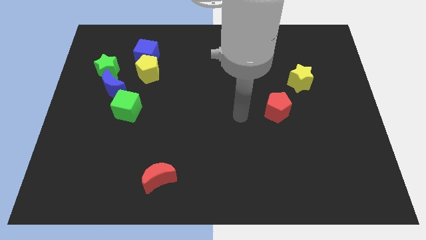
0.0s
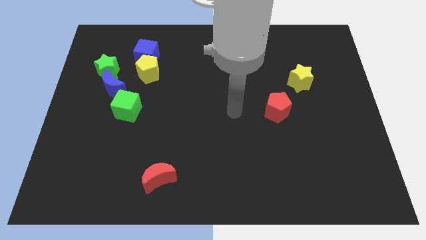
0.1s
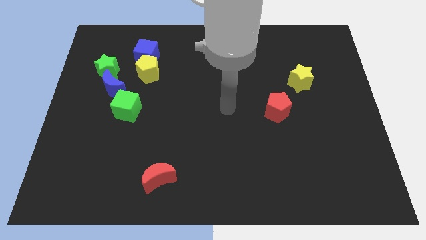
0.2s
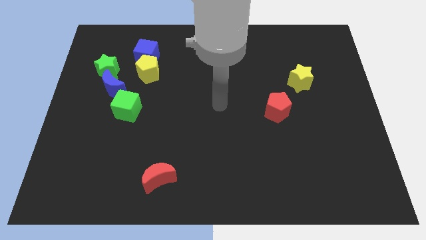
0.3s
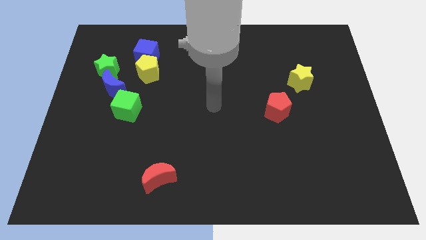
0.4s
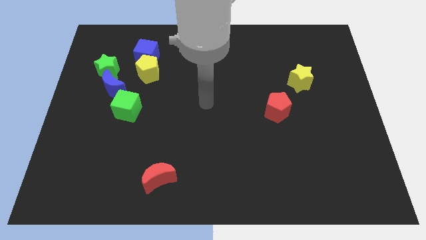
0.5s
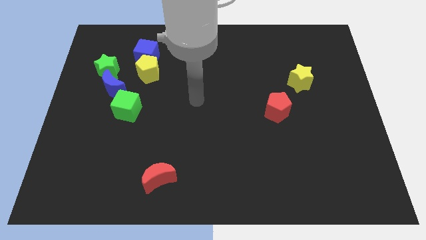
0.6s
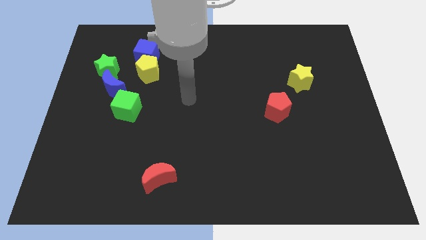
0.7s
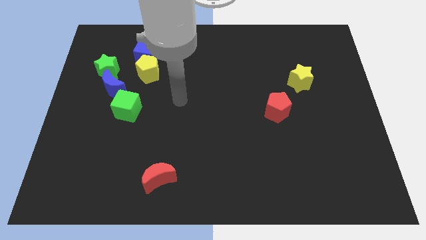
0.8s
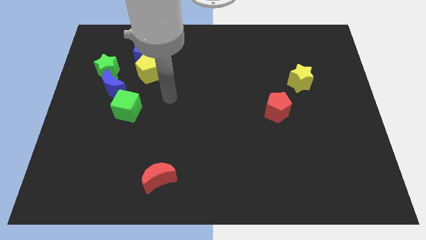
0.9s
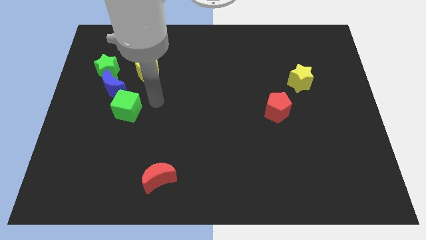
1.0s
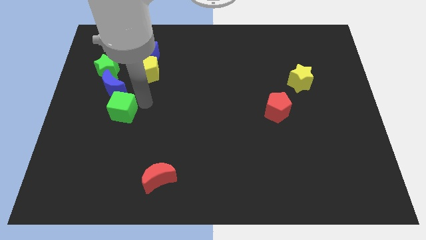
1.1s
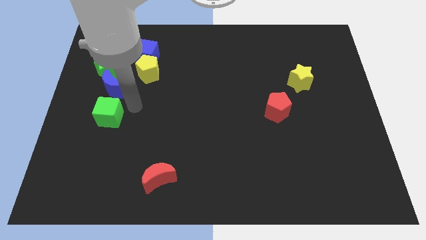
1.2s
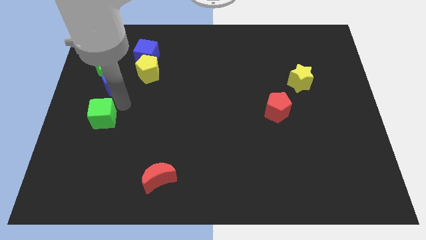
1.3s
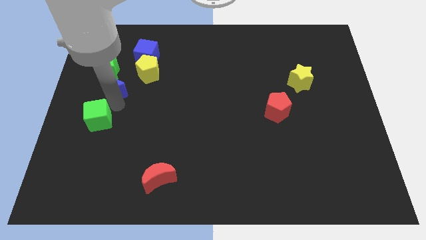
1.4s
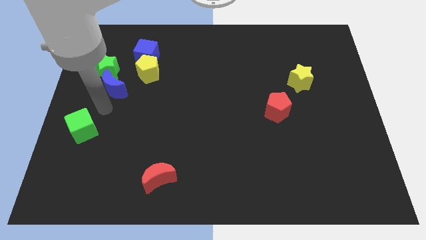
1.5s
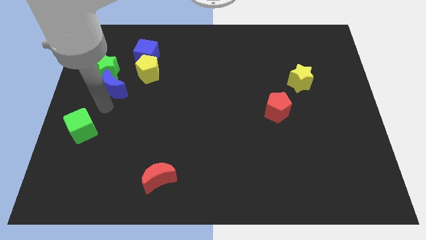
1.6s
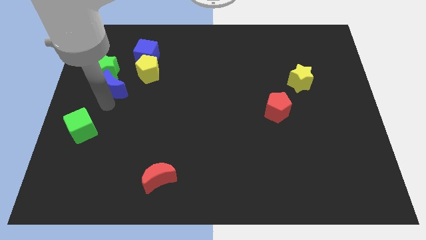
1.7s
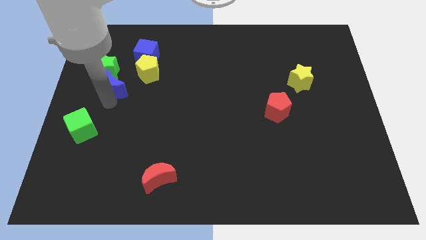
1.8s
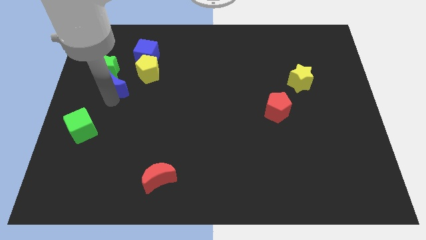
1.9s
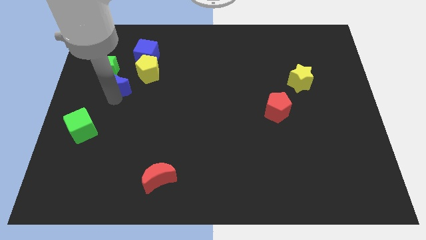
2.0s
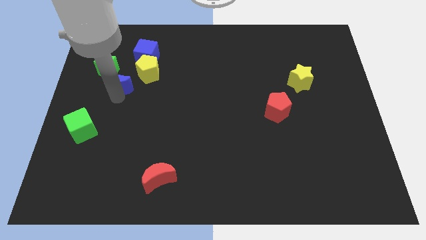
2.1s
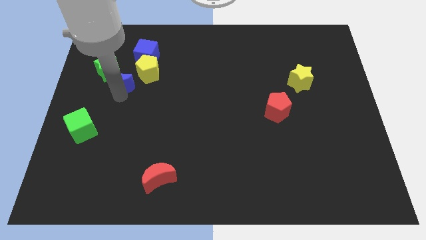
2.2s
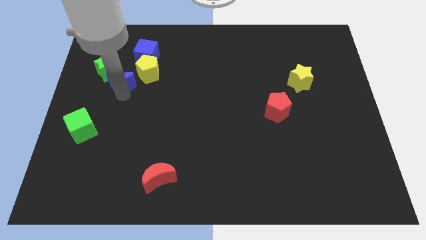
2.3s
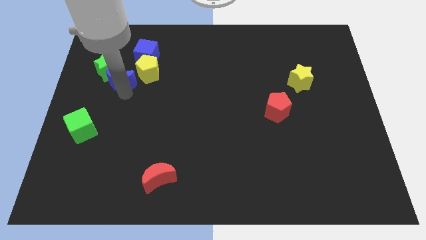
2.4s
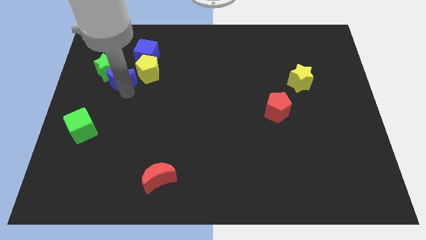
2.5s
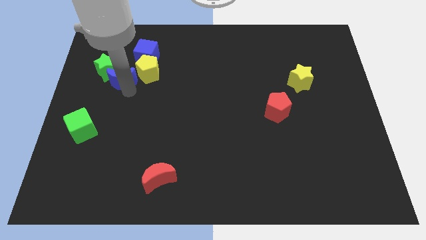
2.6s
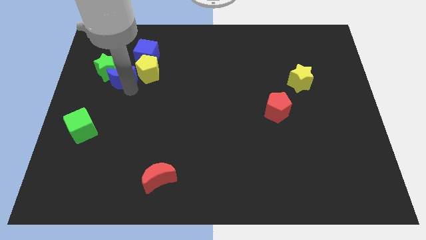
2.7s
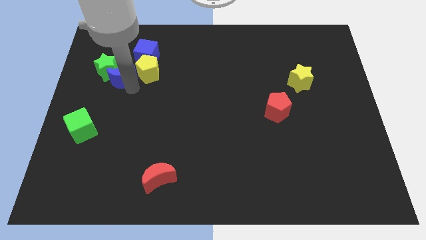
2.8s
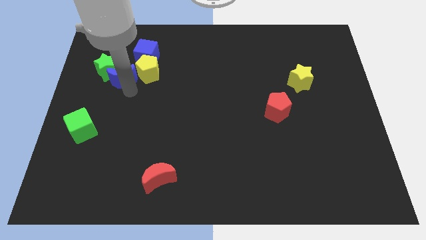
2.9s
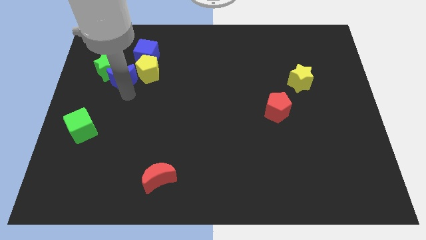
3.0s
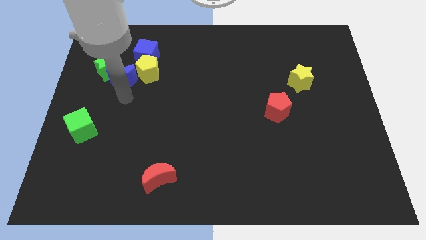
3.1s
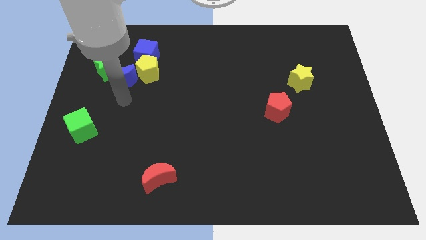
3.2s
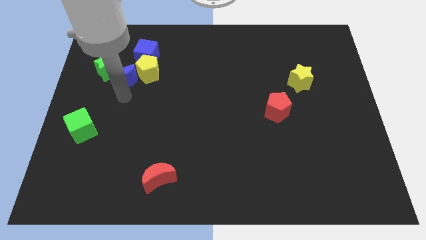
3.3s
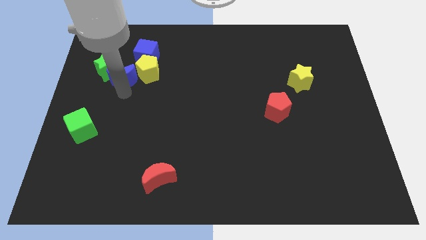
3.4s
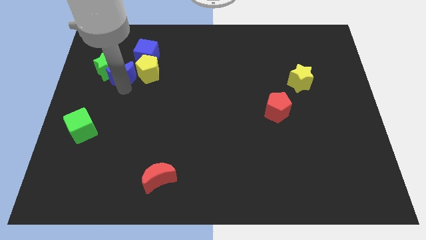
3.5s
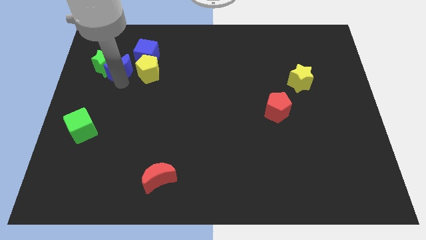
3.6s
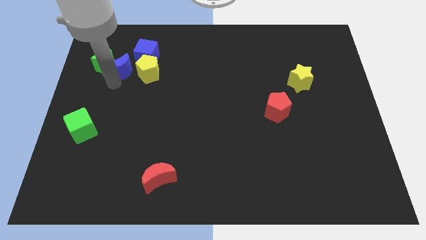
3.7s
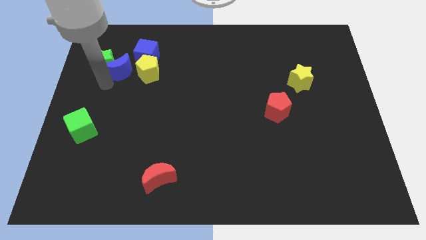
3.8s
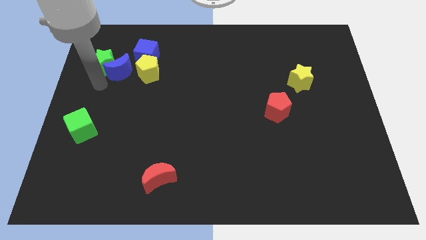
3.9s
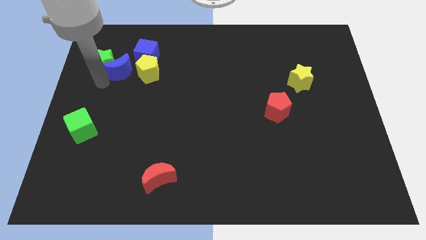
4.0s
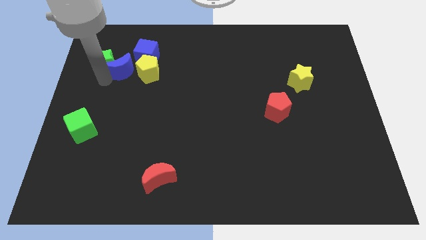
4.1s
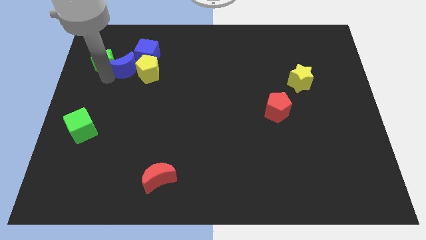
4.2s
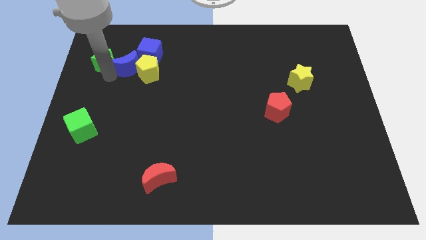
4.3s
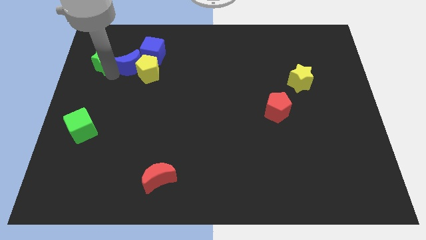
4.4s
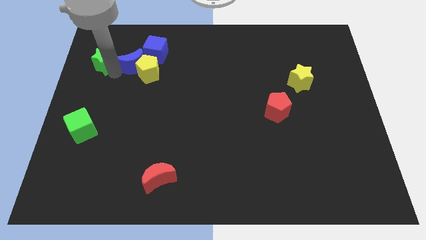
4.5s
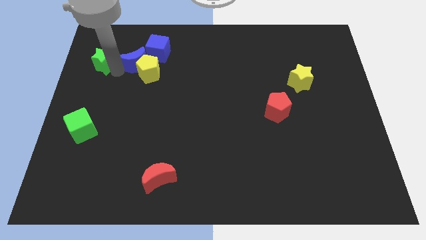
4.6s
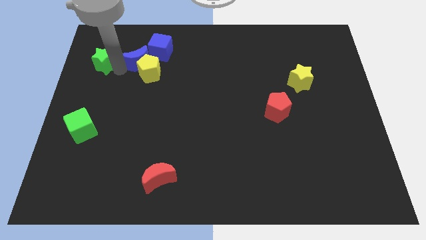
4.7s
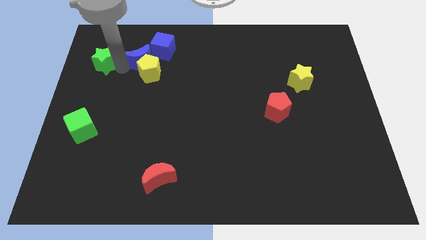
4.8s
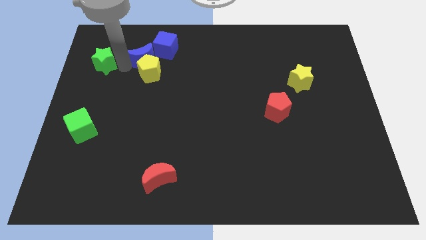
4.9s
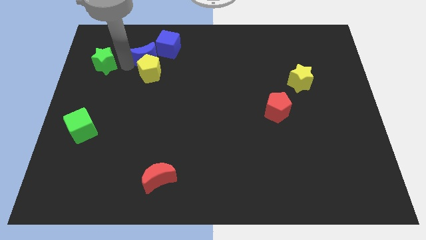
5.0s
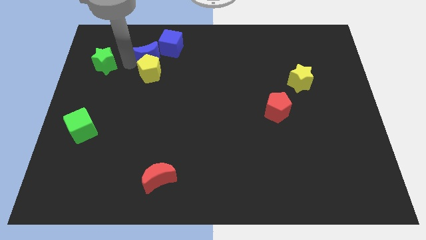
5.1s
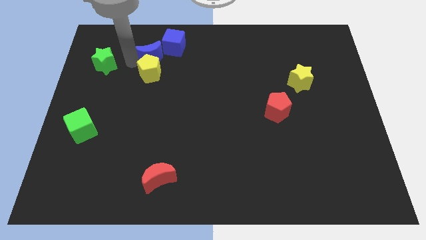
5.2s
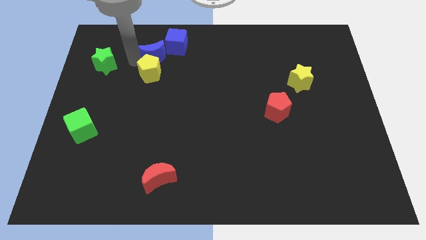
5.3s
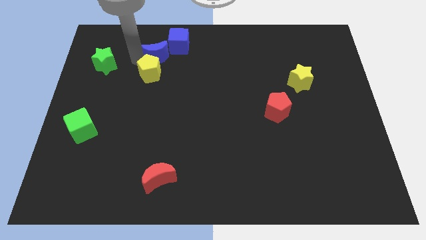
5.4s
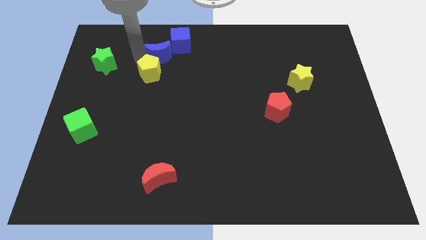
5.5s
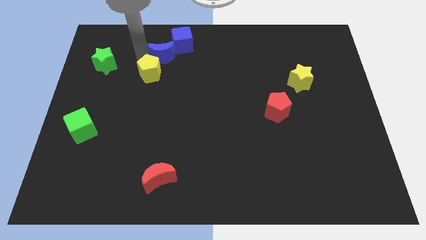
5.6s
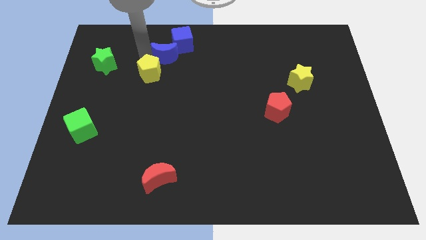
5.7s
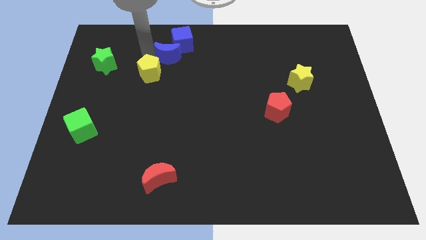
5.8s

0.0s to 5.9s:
push the blue moon towards the blue cube

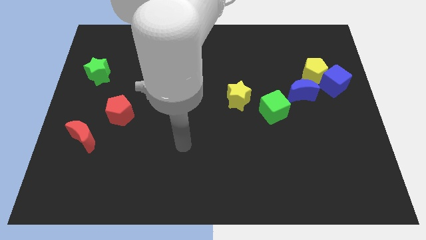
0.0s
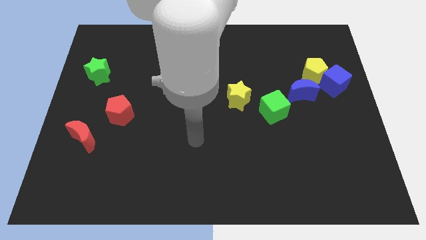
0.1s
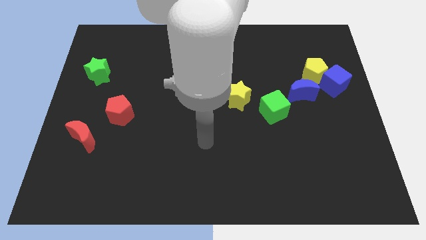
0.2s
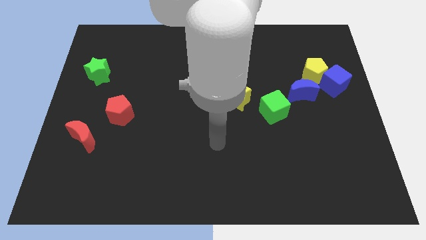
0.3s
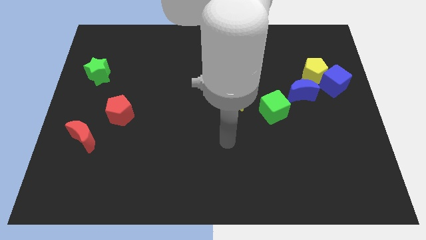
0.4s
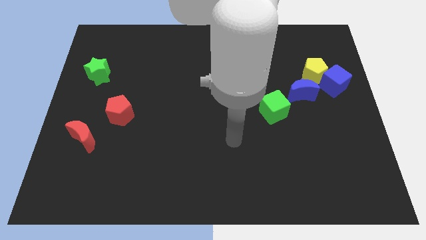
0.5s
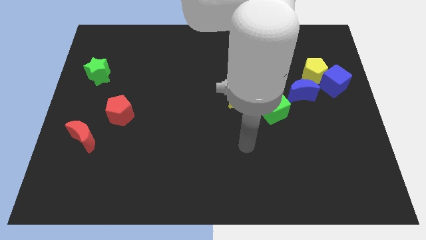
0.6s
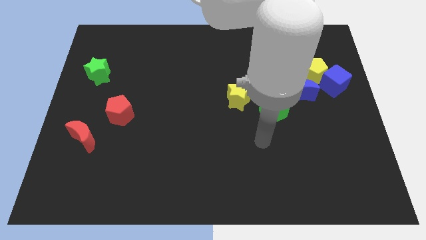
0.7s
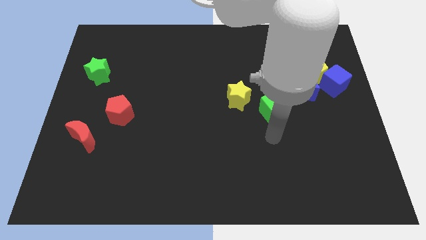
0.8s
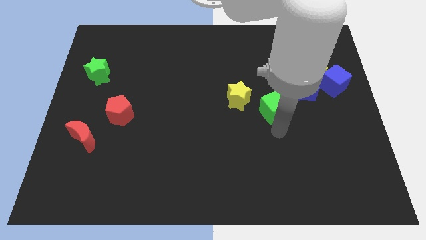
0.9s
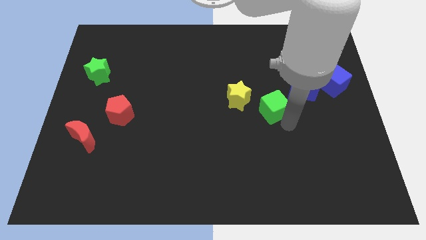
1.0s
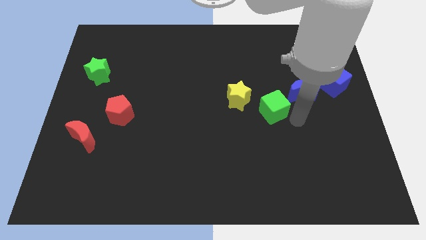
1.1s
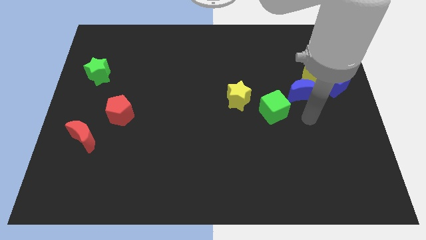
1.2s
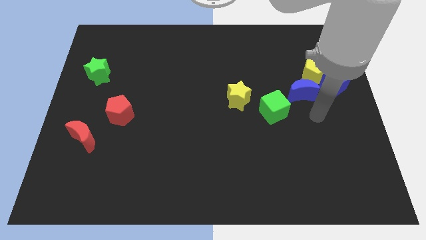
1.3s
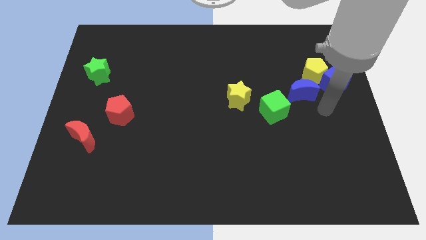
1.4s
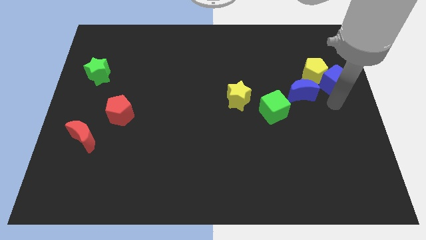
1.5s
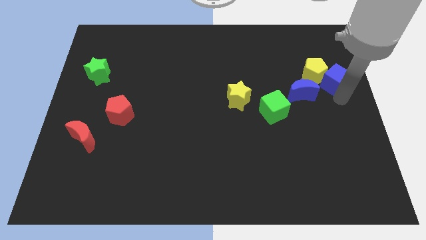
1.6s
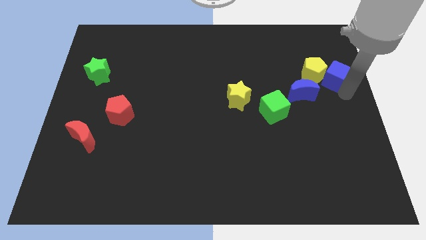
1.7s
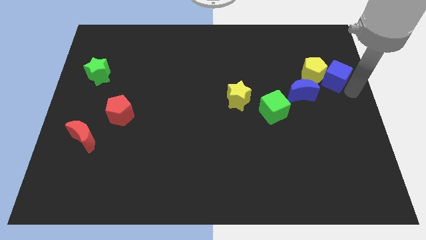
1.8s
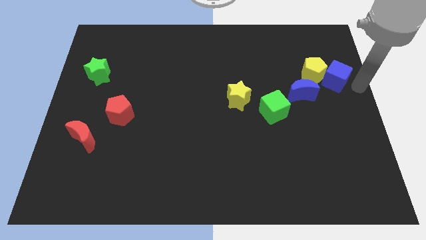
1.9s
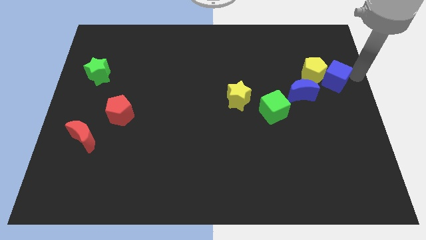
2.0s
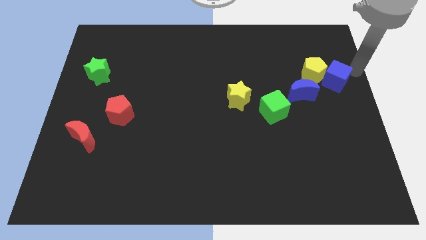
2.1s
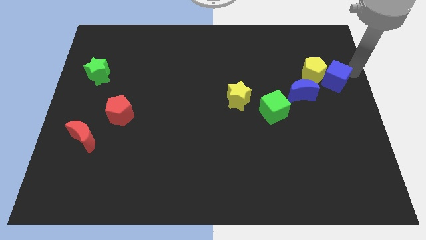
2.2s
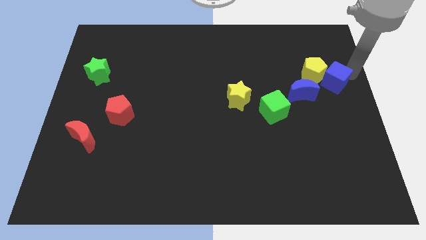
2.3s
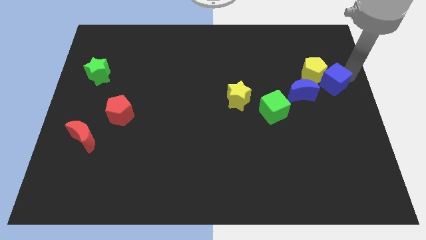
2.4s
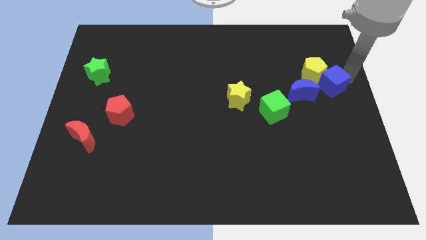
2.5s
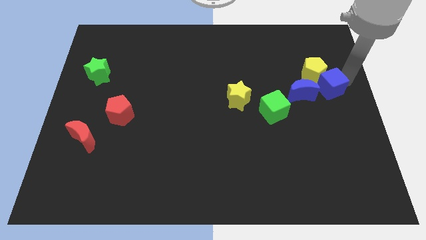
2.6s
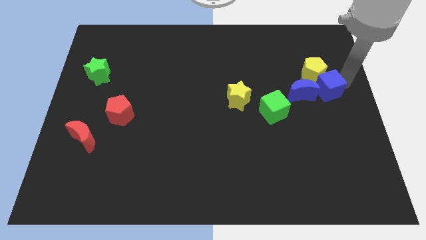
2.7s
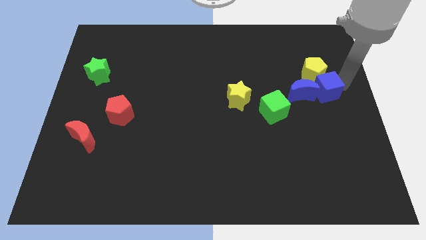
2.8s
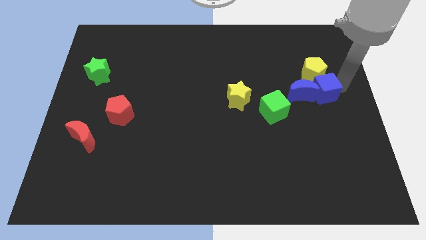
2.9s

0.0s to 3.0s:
put the blue cube close to the blue moon
